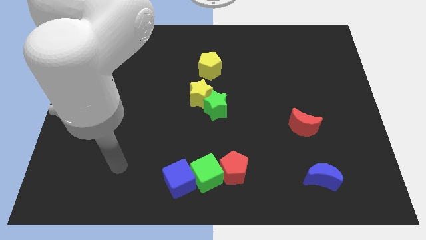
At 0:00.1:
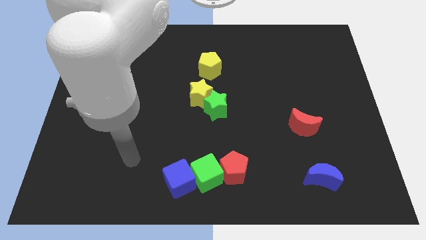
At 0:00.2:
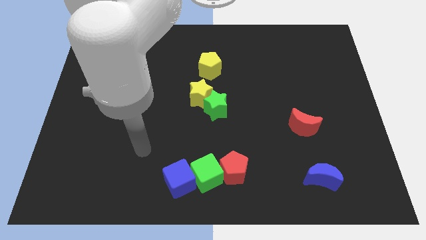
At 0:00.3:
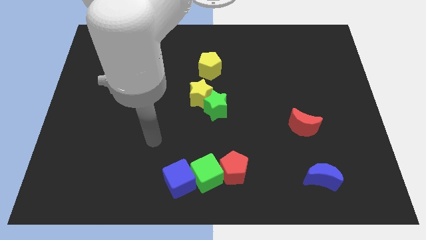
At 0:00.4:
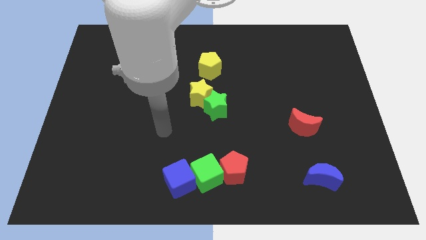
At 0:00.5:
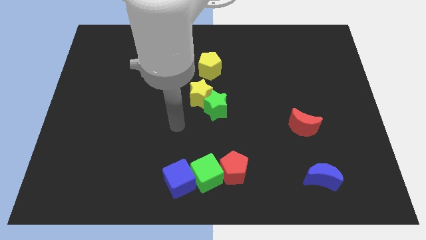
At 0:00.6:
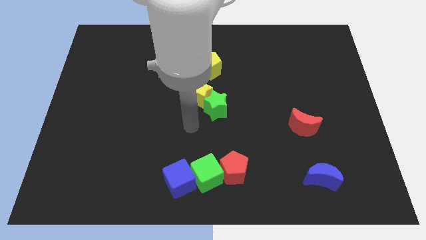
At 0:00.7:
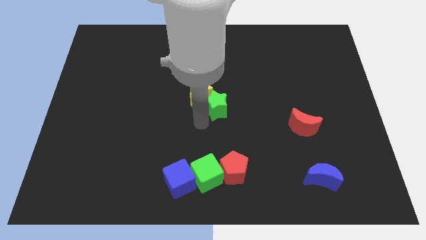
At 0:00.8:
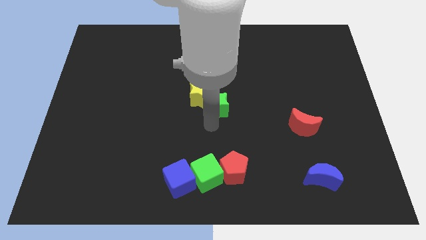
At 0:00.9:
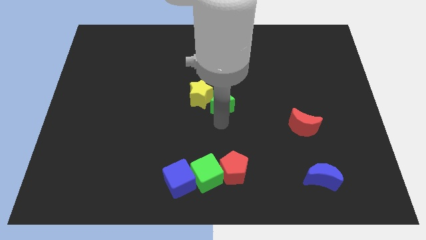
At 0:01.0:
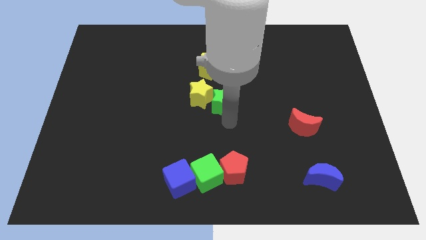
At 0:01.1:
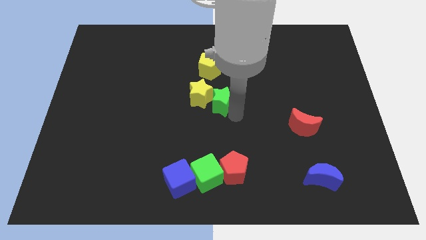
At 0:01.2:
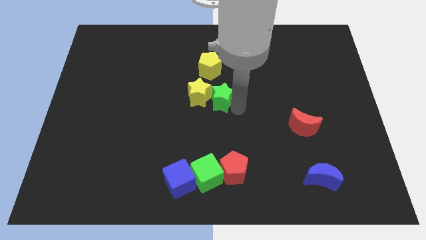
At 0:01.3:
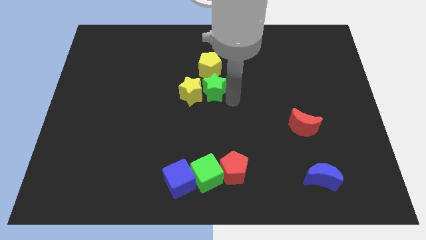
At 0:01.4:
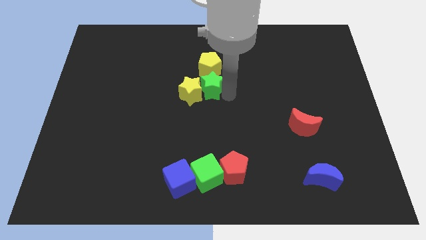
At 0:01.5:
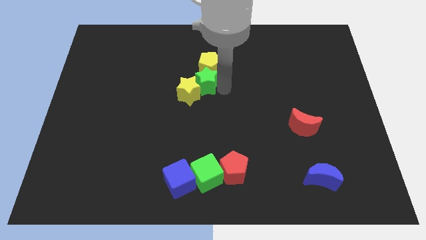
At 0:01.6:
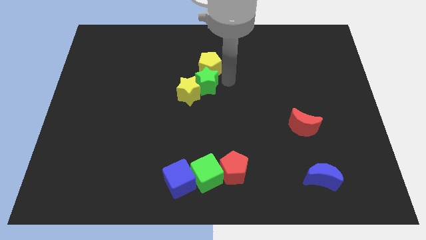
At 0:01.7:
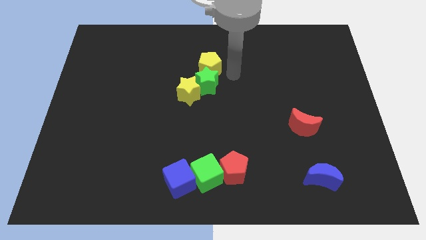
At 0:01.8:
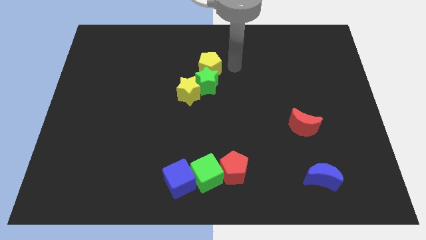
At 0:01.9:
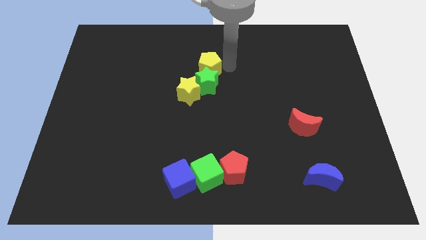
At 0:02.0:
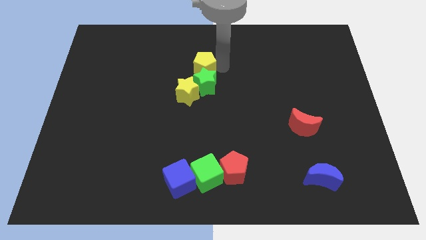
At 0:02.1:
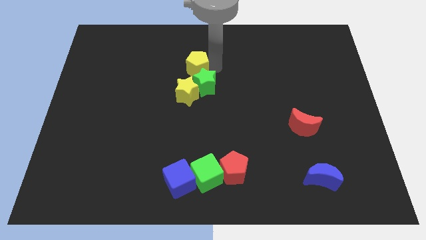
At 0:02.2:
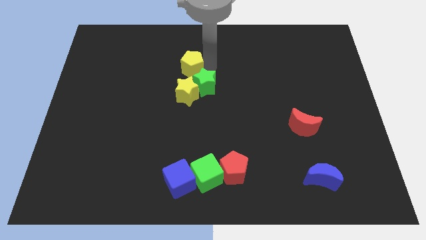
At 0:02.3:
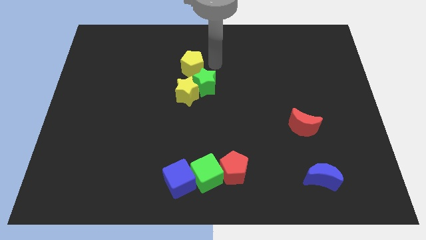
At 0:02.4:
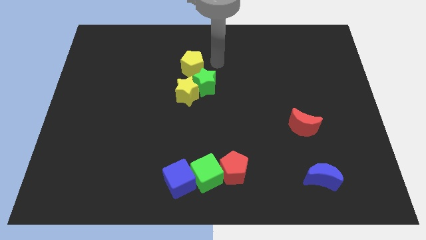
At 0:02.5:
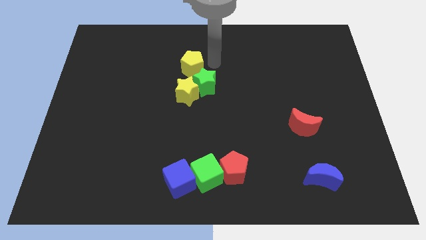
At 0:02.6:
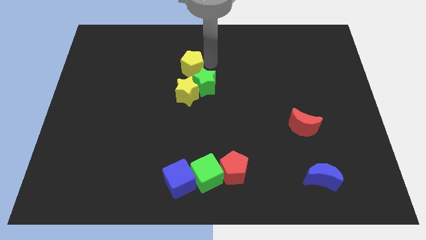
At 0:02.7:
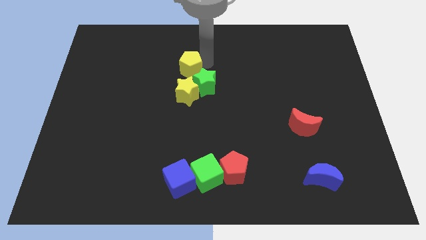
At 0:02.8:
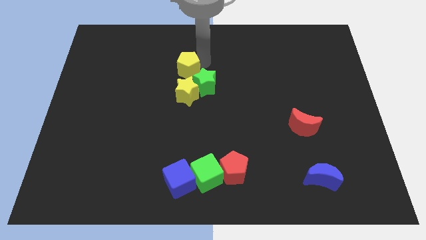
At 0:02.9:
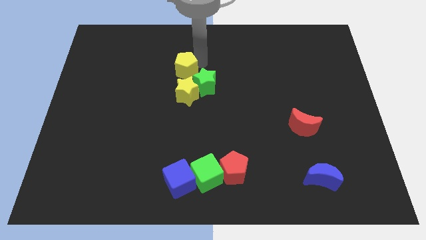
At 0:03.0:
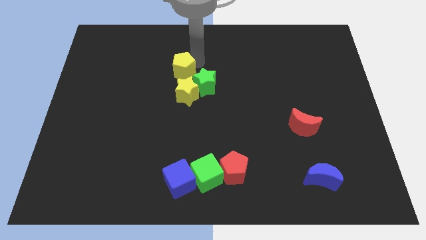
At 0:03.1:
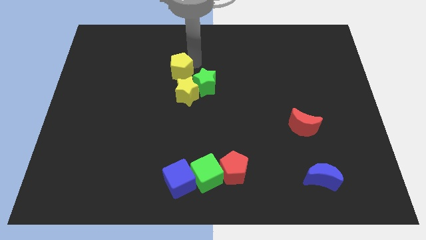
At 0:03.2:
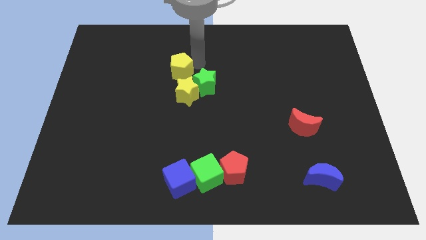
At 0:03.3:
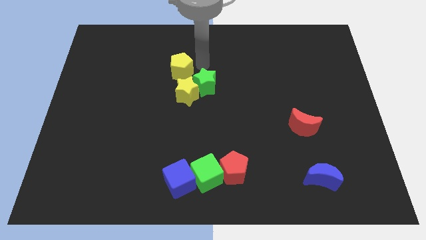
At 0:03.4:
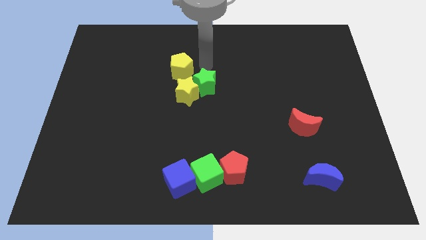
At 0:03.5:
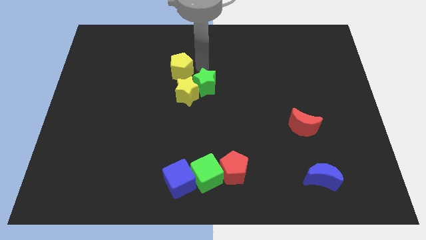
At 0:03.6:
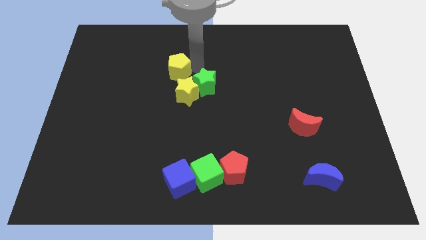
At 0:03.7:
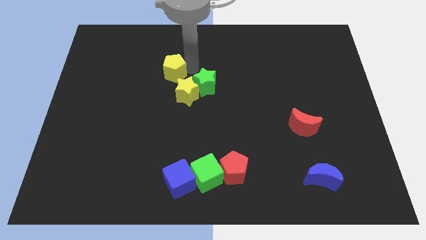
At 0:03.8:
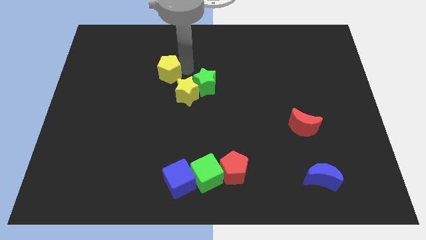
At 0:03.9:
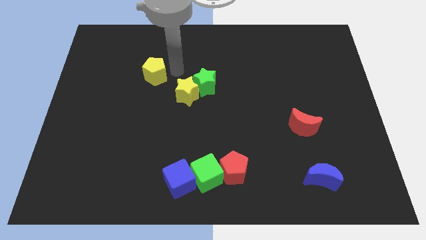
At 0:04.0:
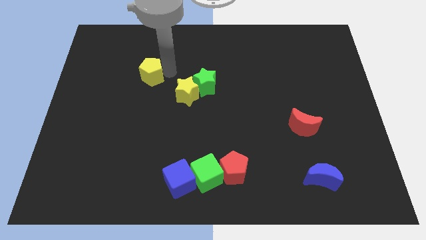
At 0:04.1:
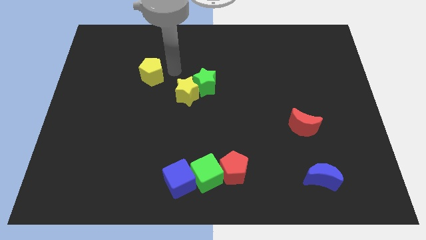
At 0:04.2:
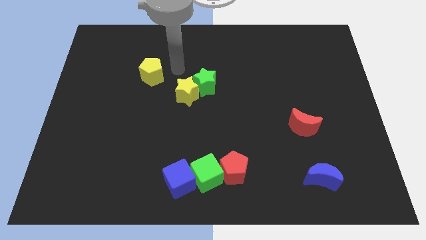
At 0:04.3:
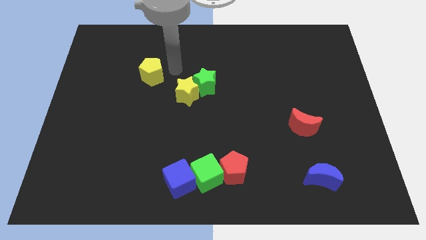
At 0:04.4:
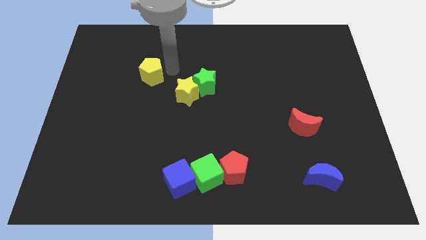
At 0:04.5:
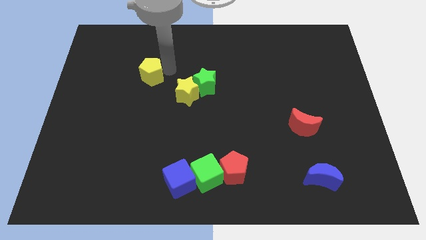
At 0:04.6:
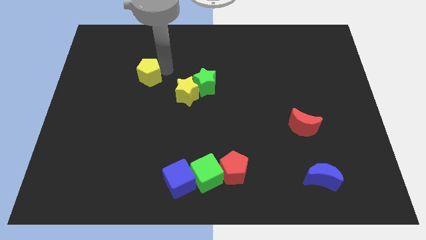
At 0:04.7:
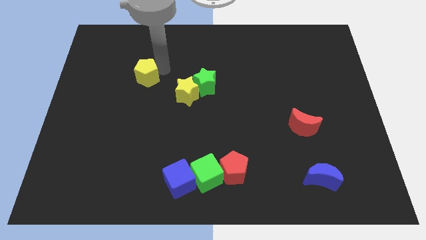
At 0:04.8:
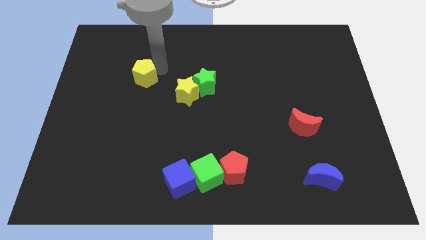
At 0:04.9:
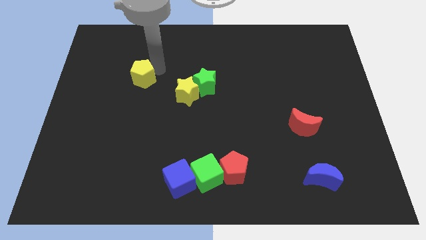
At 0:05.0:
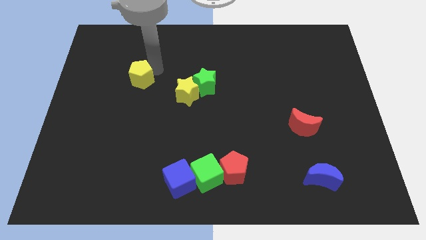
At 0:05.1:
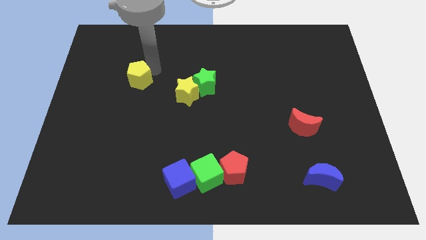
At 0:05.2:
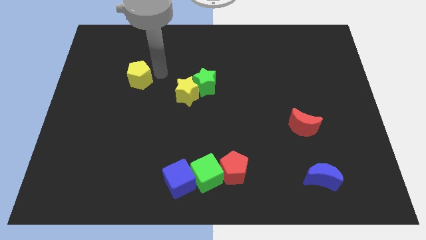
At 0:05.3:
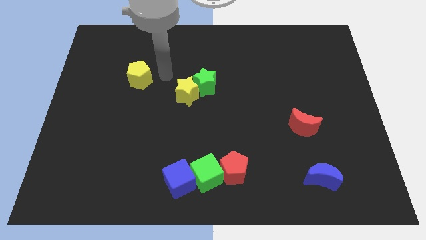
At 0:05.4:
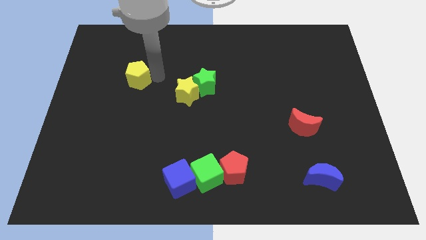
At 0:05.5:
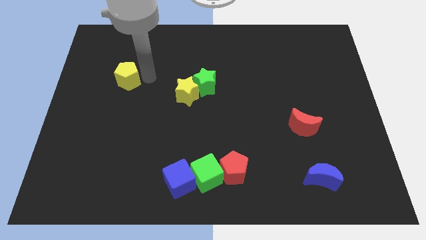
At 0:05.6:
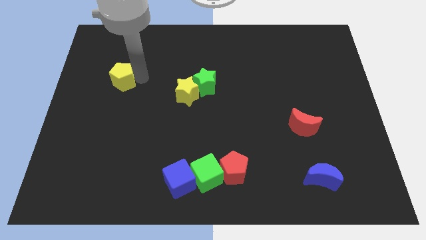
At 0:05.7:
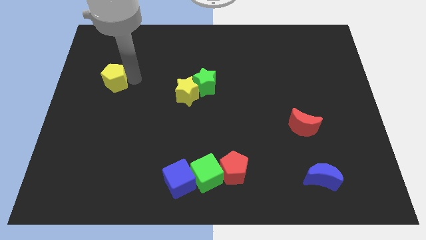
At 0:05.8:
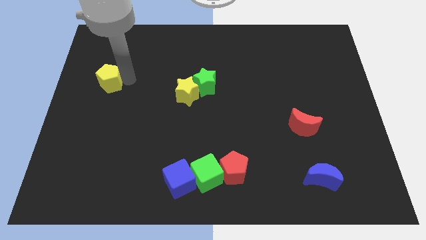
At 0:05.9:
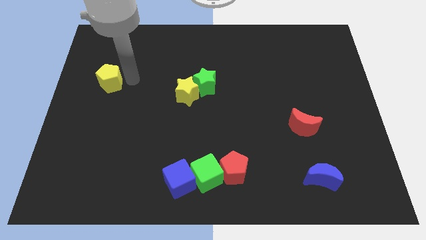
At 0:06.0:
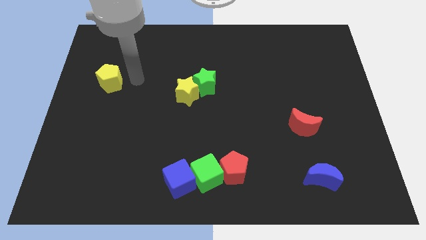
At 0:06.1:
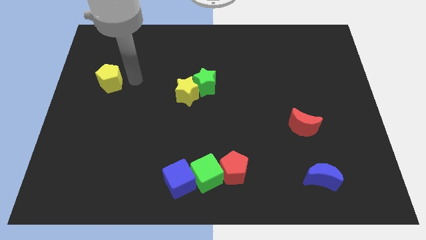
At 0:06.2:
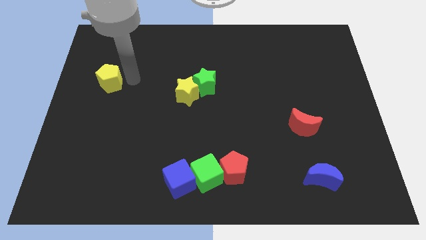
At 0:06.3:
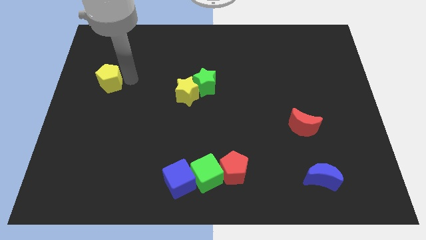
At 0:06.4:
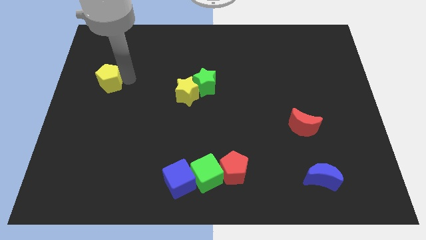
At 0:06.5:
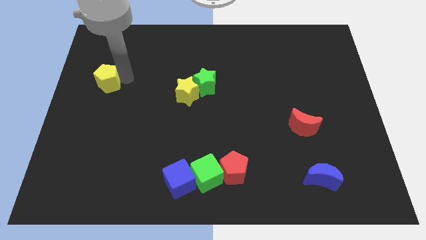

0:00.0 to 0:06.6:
push the yellow pentagon to the left side of the board
